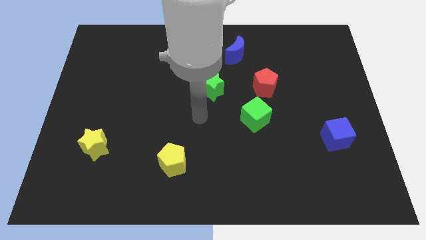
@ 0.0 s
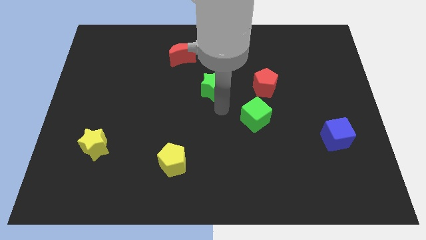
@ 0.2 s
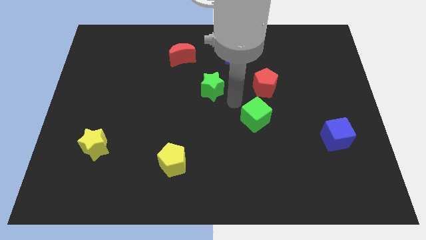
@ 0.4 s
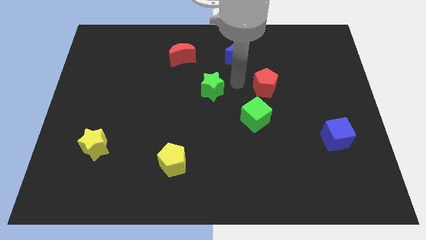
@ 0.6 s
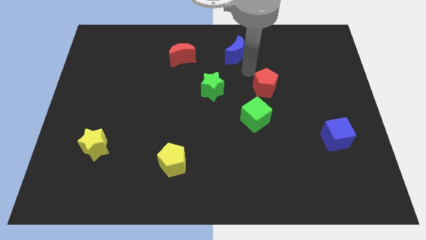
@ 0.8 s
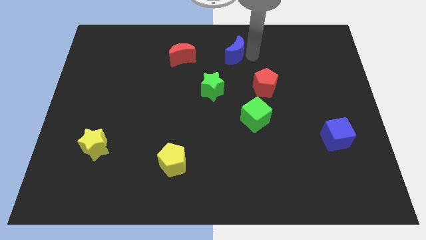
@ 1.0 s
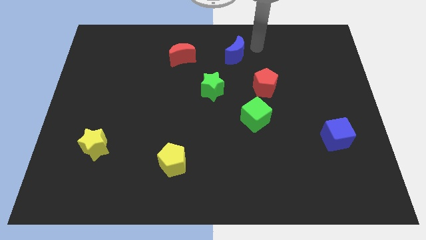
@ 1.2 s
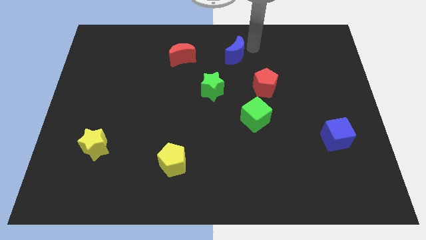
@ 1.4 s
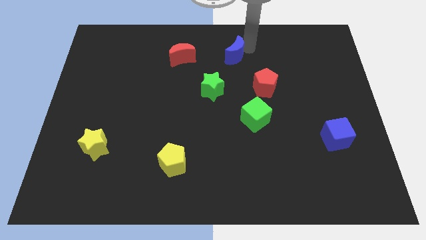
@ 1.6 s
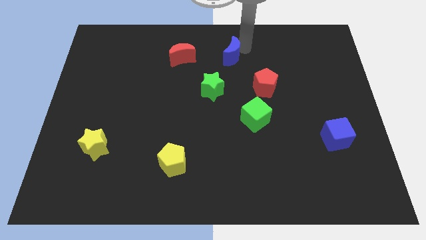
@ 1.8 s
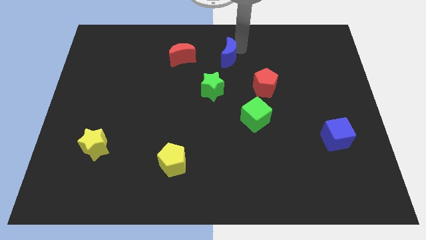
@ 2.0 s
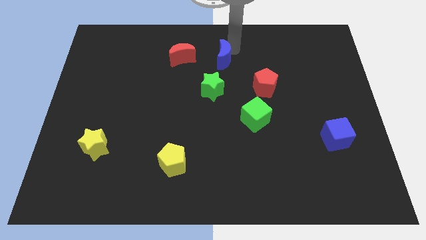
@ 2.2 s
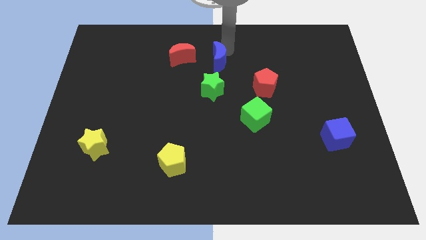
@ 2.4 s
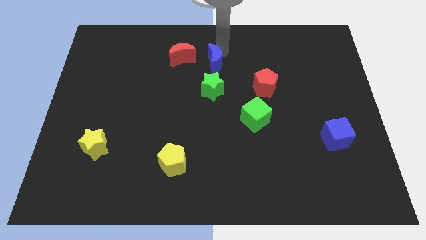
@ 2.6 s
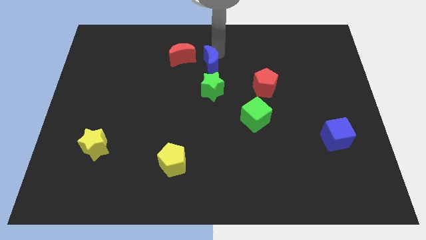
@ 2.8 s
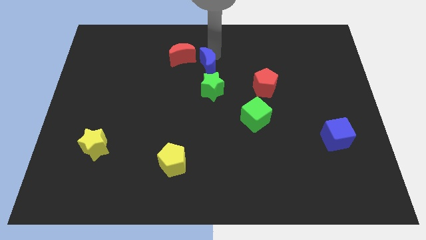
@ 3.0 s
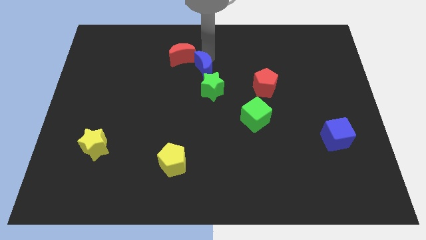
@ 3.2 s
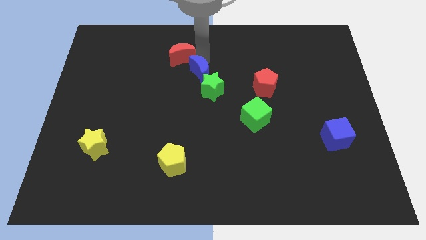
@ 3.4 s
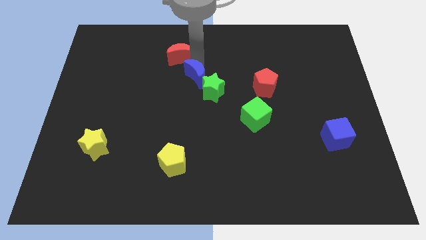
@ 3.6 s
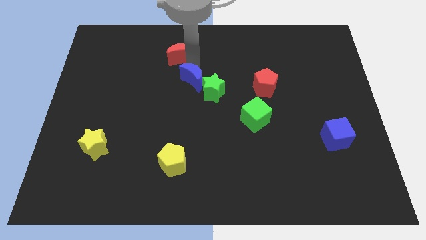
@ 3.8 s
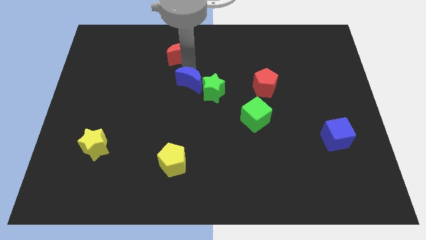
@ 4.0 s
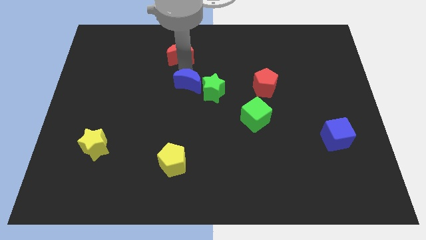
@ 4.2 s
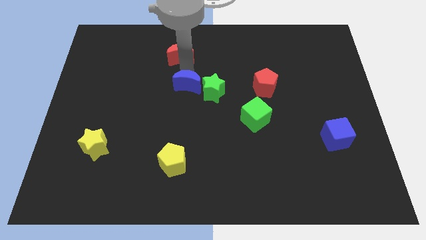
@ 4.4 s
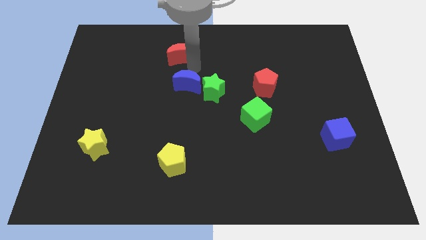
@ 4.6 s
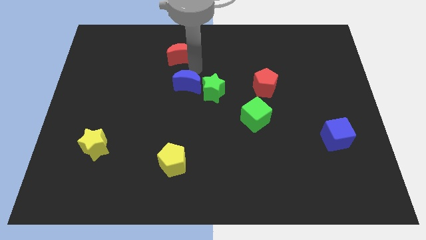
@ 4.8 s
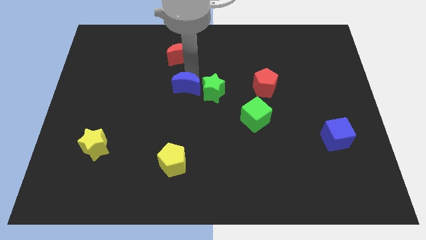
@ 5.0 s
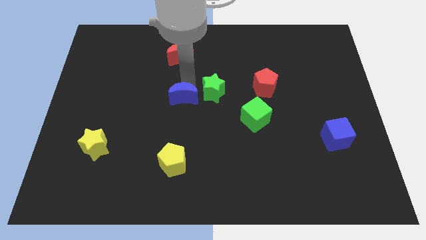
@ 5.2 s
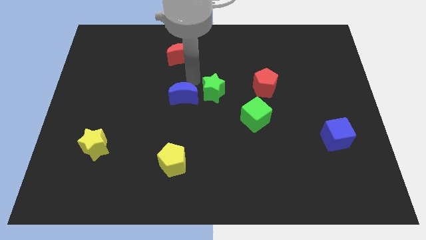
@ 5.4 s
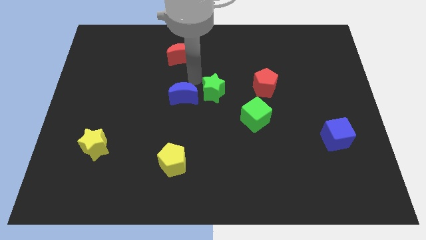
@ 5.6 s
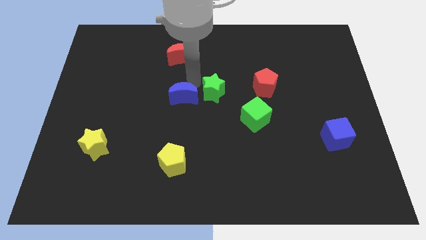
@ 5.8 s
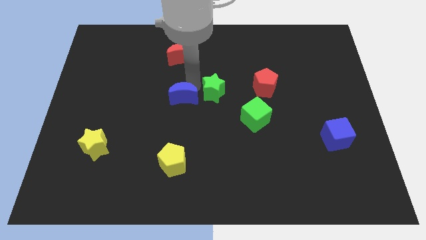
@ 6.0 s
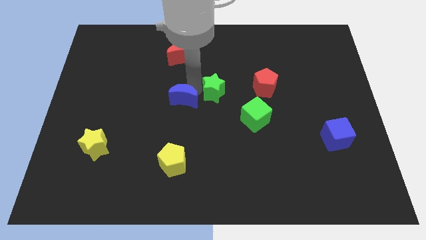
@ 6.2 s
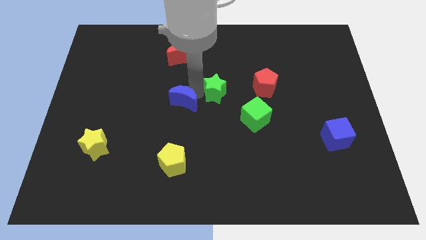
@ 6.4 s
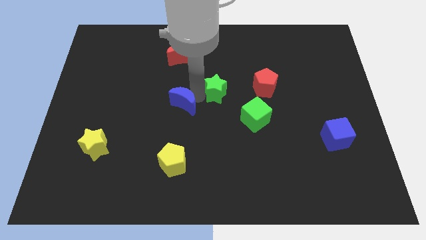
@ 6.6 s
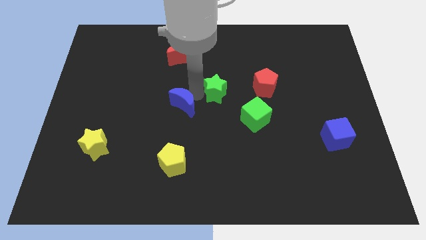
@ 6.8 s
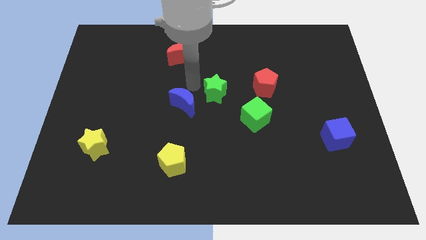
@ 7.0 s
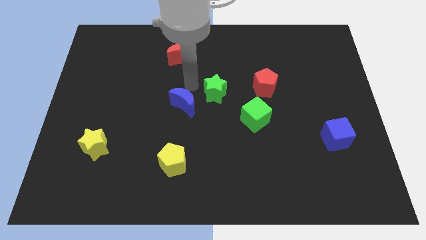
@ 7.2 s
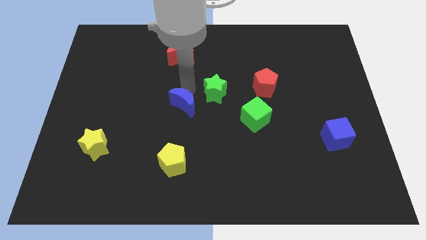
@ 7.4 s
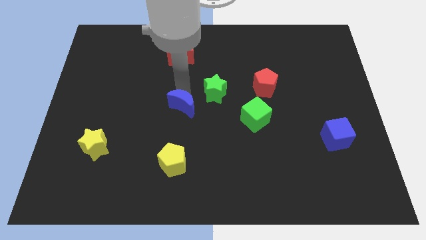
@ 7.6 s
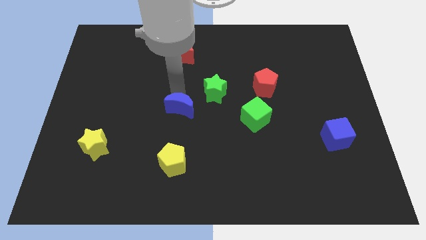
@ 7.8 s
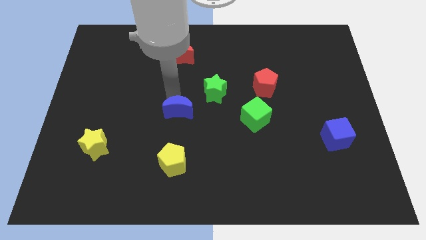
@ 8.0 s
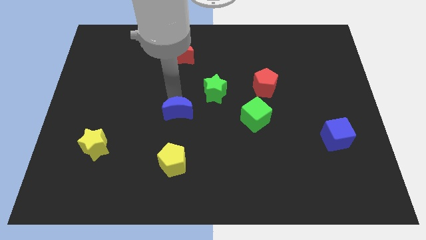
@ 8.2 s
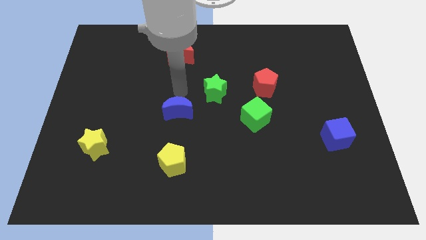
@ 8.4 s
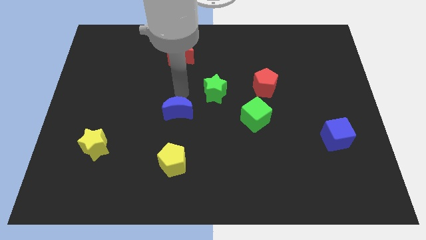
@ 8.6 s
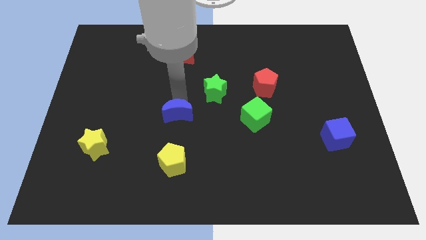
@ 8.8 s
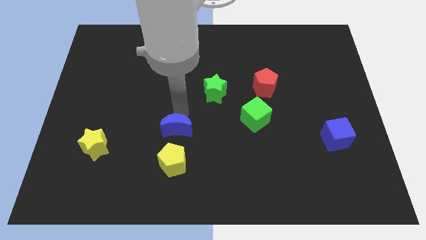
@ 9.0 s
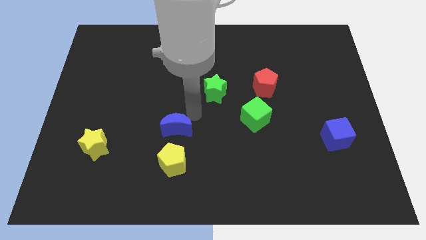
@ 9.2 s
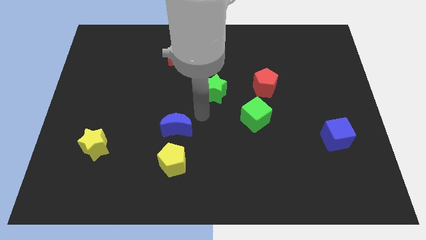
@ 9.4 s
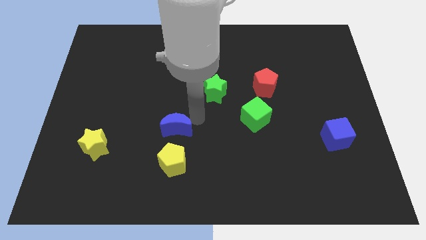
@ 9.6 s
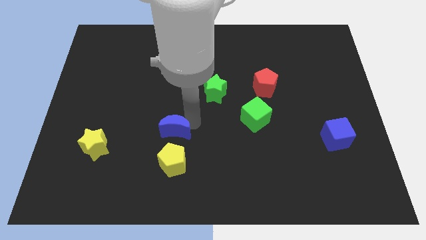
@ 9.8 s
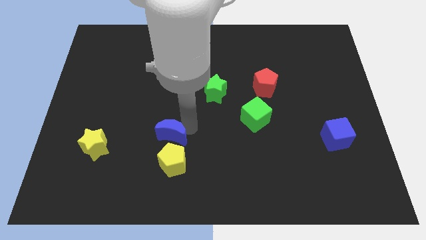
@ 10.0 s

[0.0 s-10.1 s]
push the blue moon diagonally up and to the left of the yellow pentagon

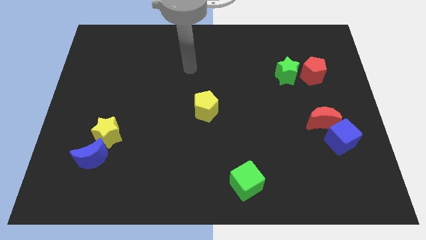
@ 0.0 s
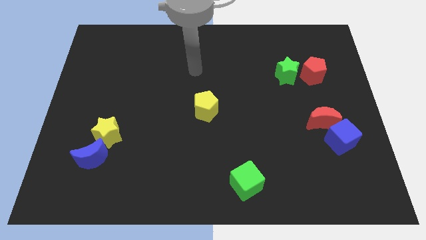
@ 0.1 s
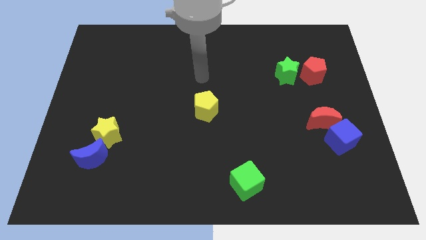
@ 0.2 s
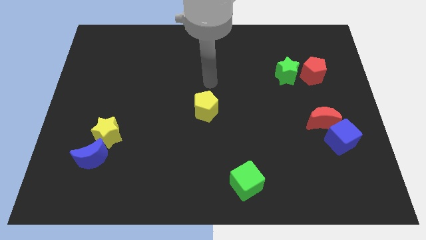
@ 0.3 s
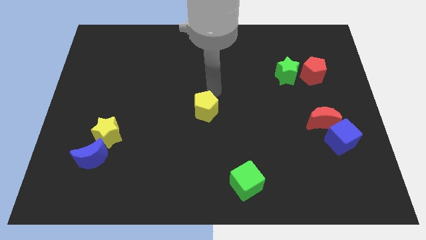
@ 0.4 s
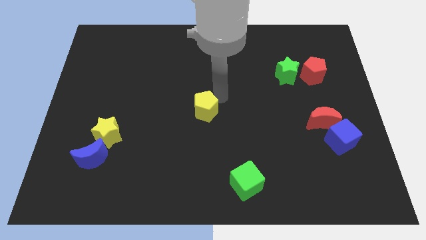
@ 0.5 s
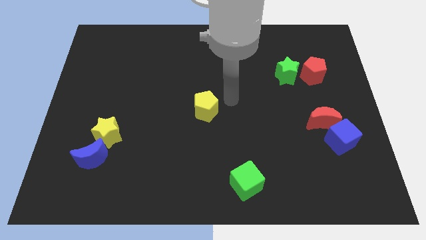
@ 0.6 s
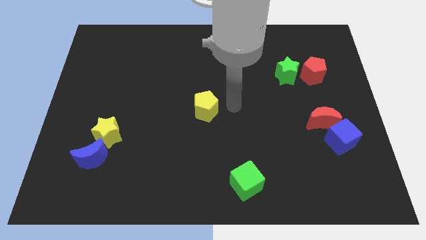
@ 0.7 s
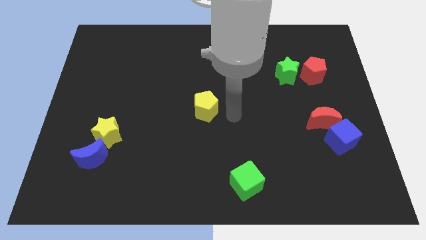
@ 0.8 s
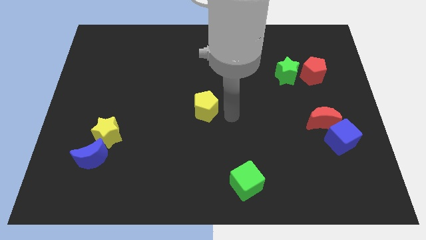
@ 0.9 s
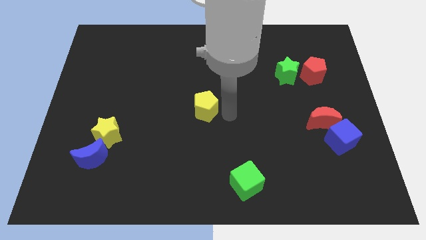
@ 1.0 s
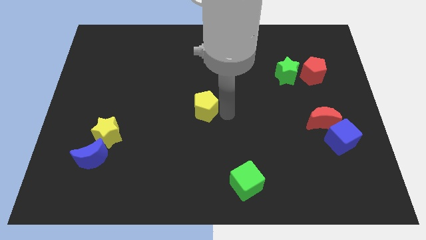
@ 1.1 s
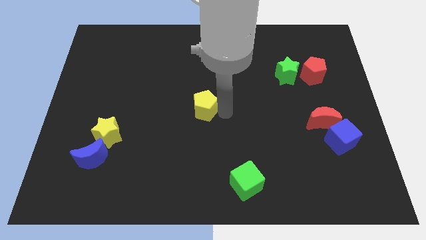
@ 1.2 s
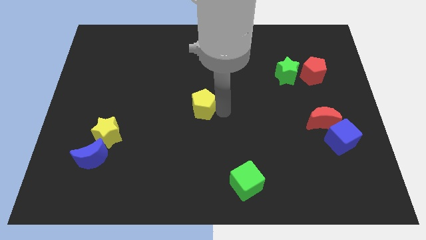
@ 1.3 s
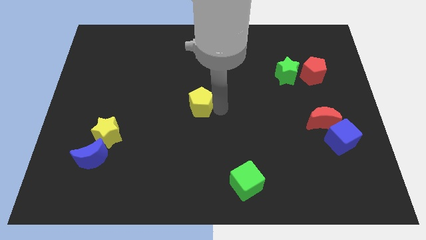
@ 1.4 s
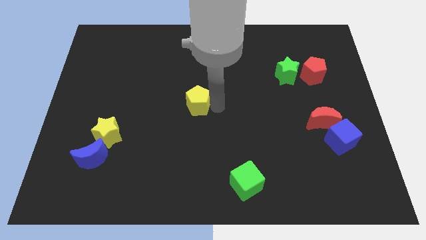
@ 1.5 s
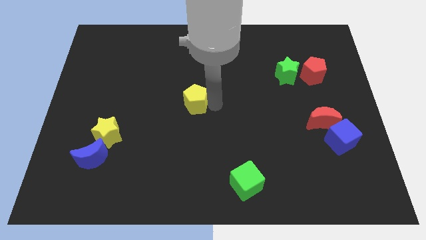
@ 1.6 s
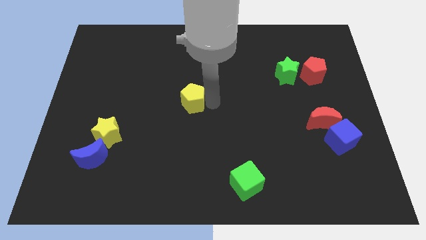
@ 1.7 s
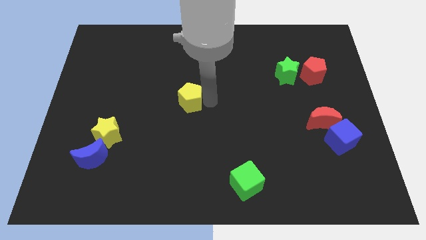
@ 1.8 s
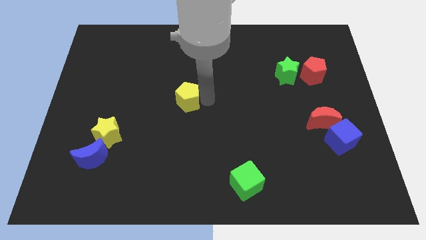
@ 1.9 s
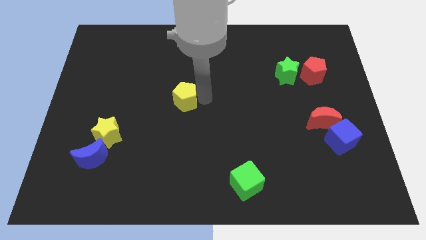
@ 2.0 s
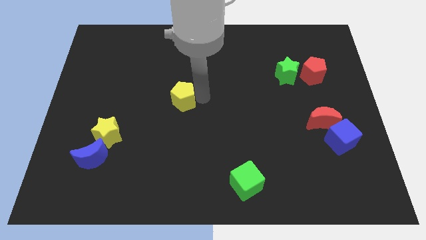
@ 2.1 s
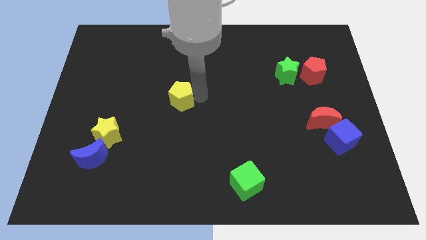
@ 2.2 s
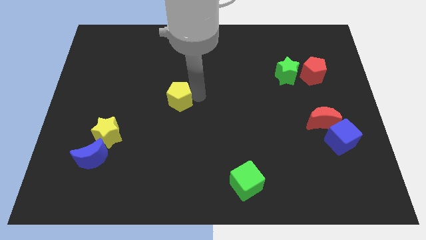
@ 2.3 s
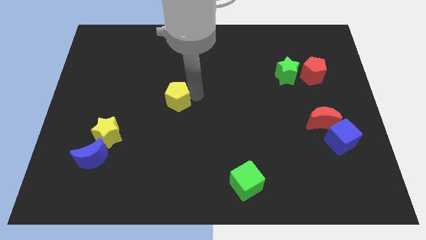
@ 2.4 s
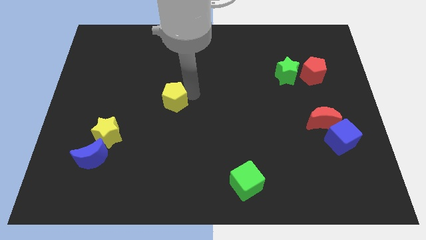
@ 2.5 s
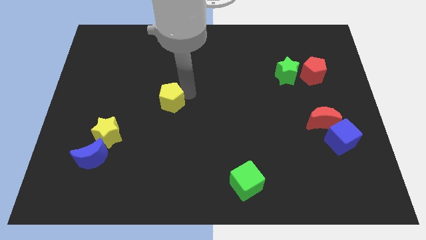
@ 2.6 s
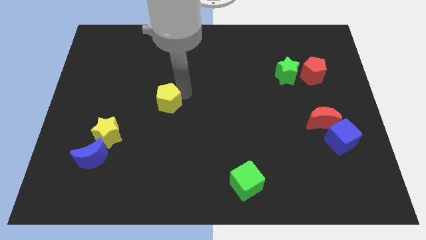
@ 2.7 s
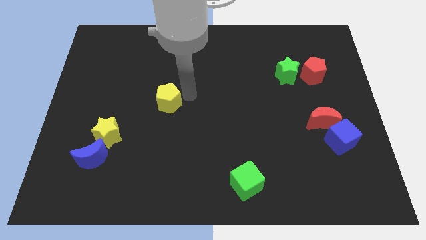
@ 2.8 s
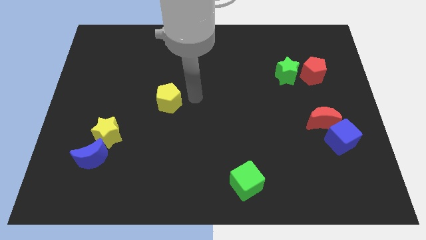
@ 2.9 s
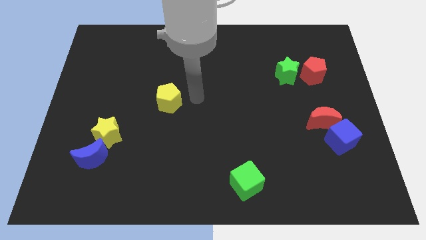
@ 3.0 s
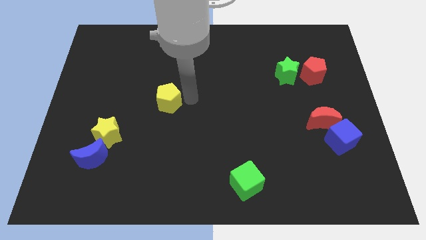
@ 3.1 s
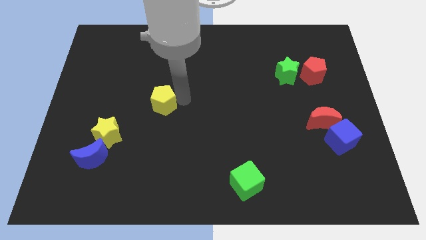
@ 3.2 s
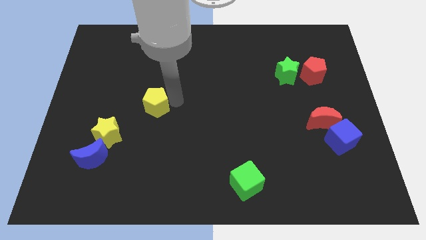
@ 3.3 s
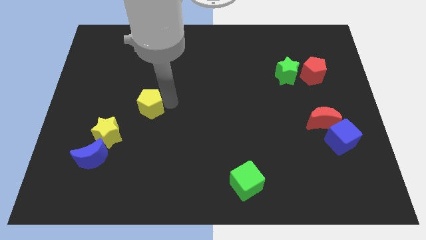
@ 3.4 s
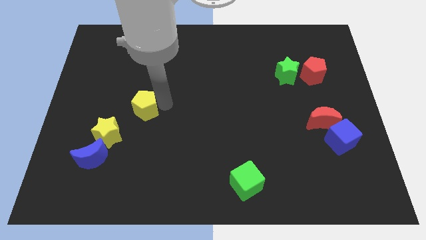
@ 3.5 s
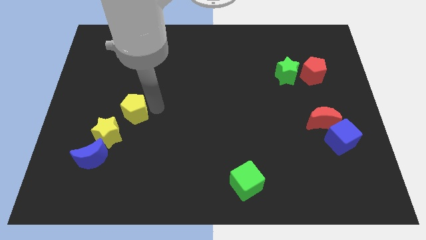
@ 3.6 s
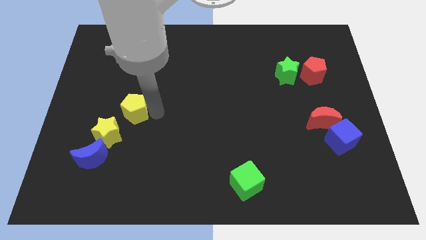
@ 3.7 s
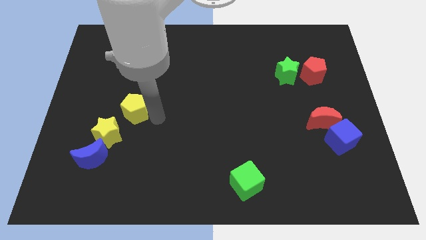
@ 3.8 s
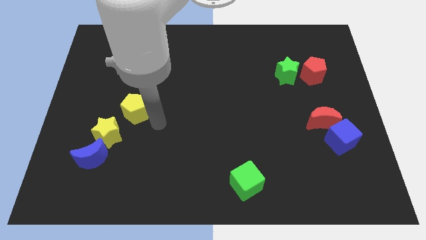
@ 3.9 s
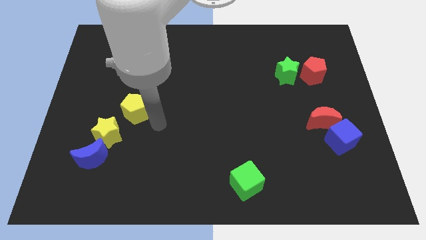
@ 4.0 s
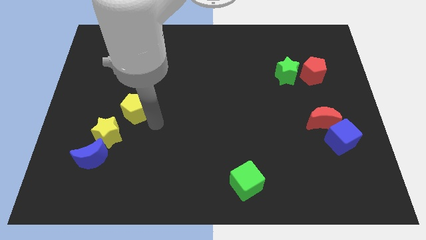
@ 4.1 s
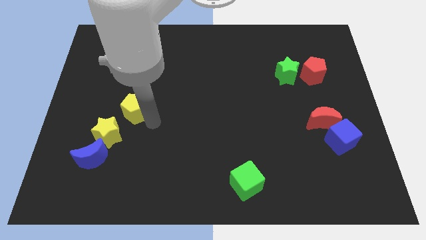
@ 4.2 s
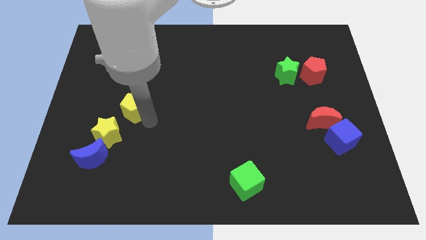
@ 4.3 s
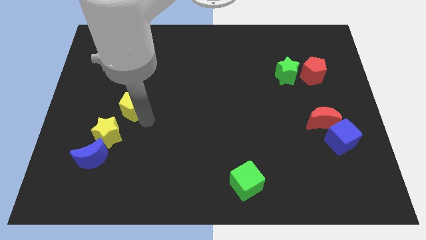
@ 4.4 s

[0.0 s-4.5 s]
move the yellow pentagon above the yellow star
